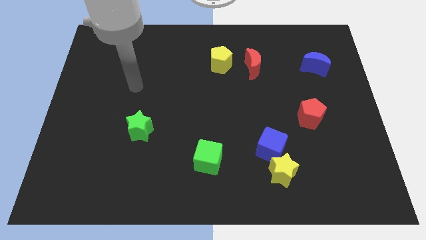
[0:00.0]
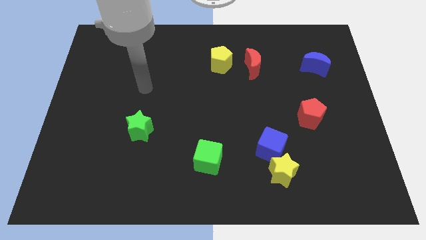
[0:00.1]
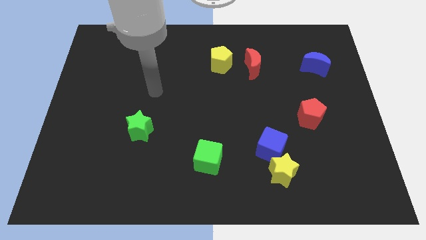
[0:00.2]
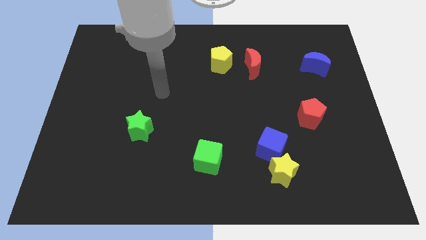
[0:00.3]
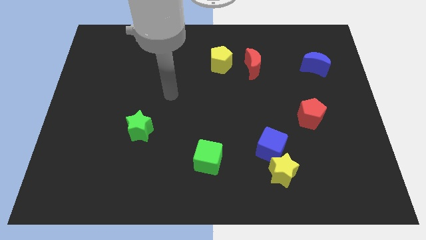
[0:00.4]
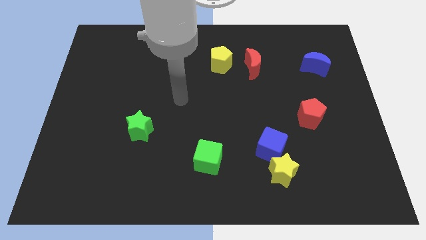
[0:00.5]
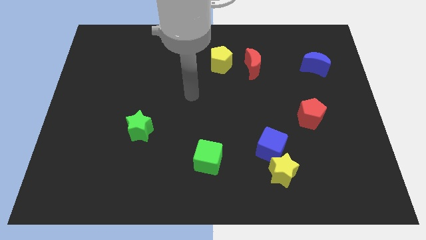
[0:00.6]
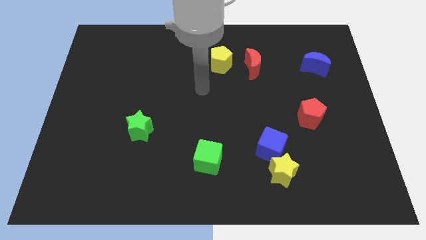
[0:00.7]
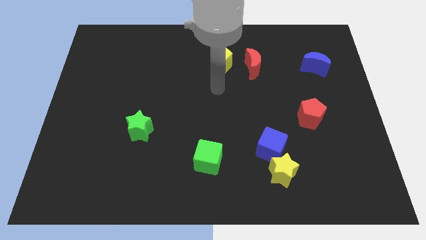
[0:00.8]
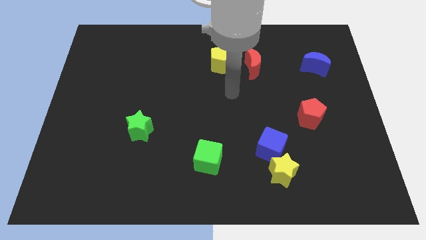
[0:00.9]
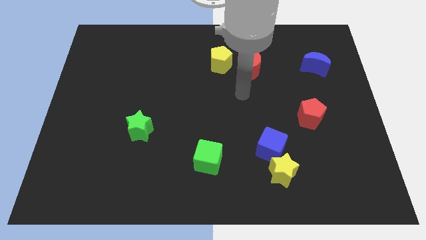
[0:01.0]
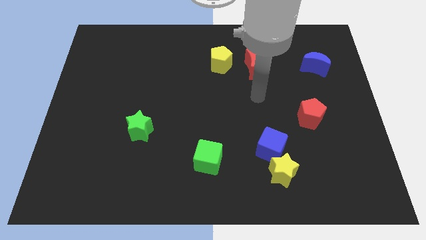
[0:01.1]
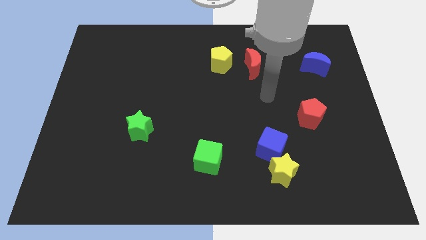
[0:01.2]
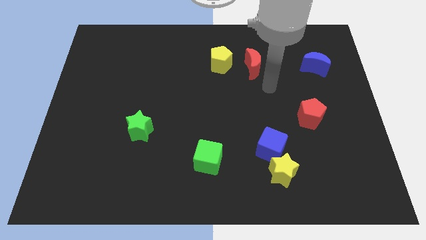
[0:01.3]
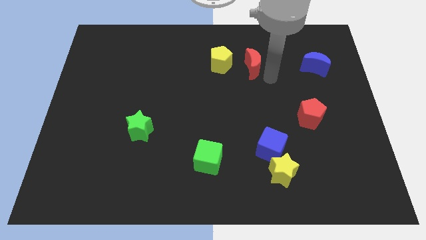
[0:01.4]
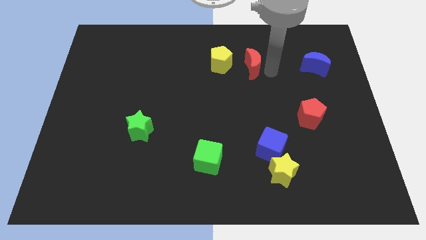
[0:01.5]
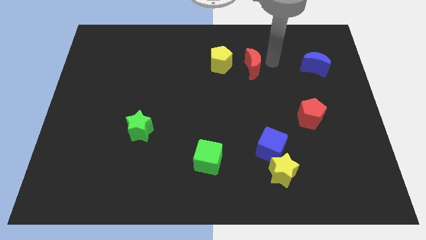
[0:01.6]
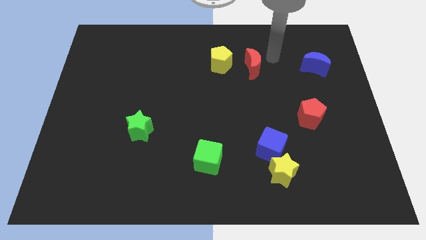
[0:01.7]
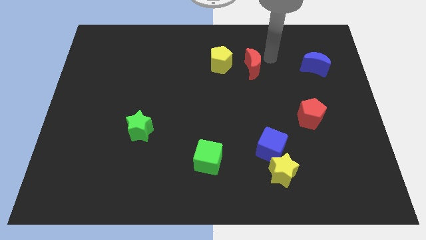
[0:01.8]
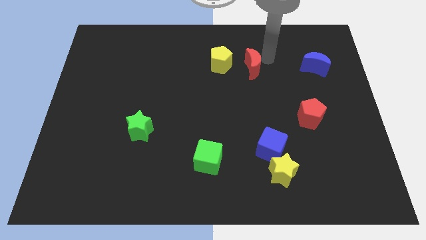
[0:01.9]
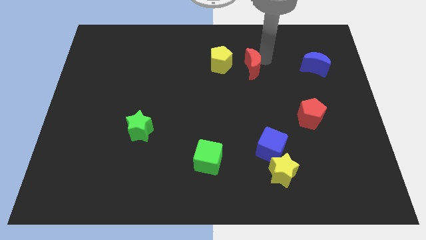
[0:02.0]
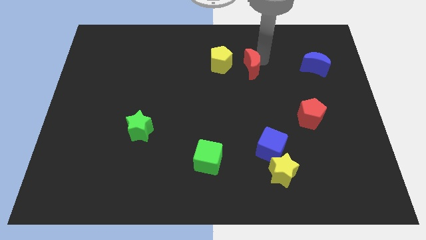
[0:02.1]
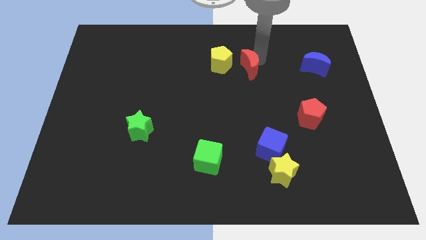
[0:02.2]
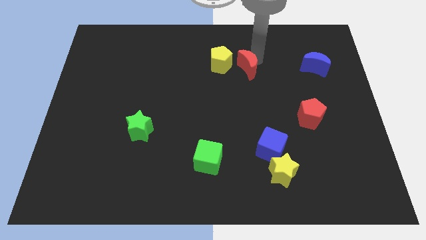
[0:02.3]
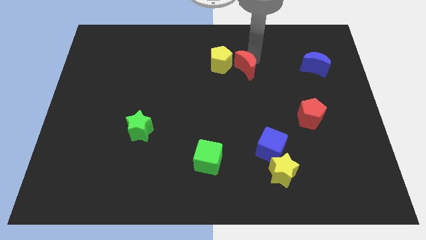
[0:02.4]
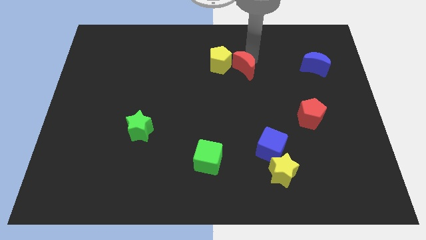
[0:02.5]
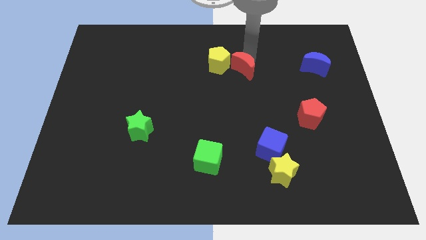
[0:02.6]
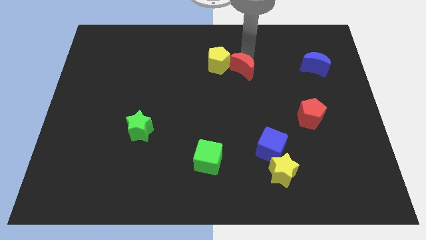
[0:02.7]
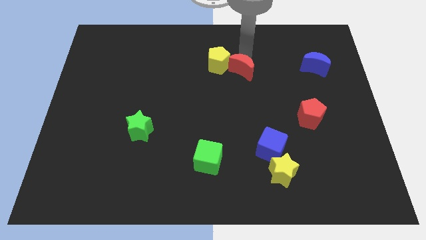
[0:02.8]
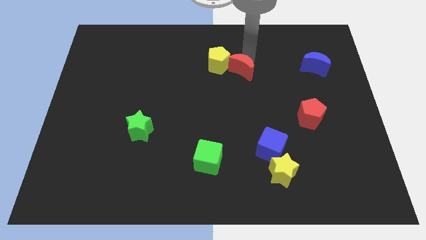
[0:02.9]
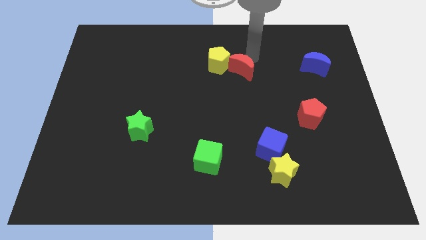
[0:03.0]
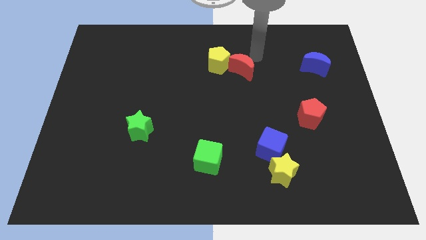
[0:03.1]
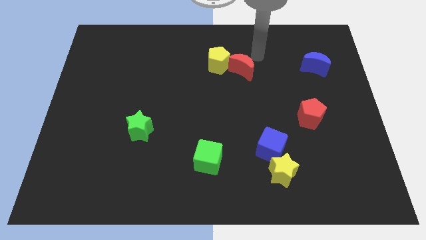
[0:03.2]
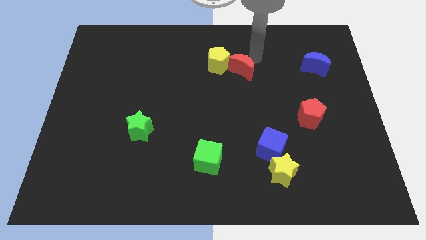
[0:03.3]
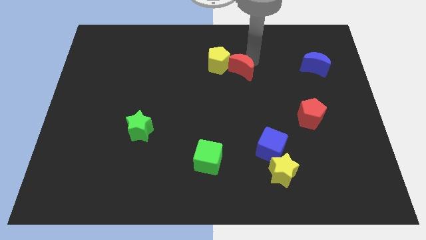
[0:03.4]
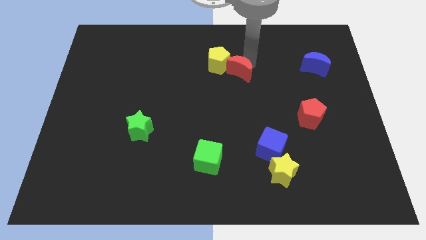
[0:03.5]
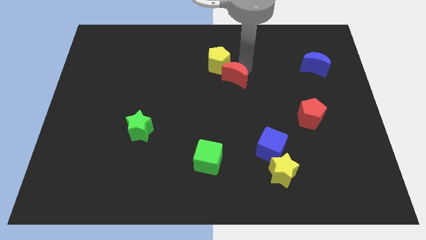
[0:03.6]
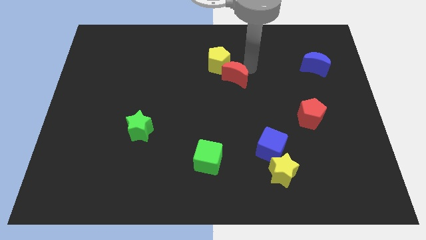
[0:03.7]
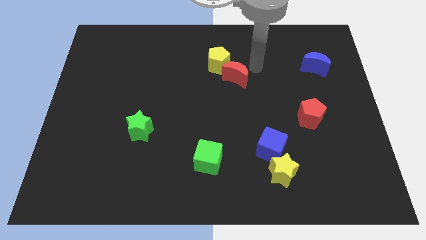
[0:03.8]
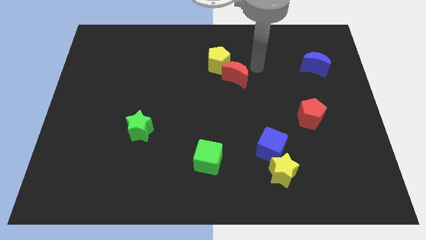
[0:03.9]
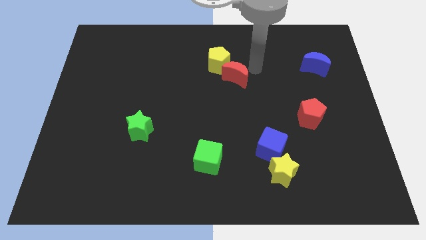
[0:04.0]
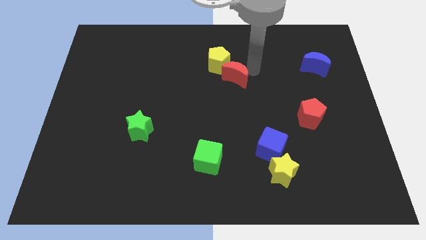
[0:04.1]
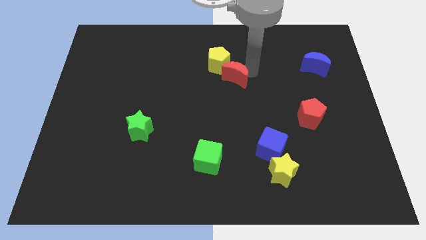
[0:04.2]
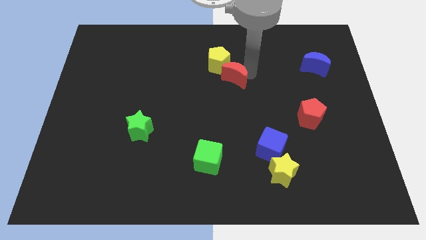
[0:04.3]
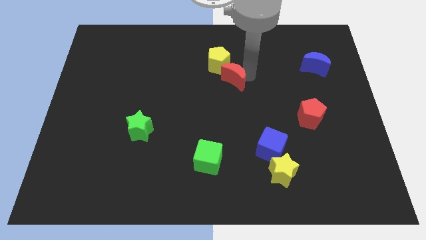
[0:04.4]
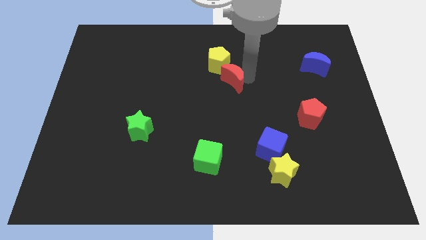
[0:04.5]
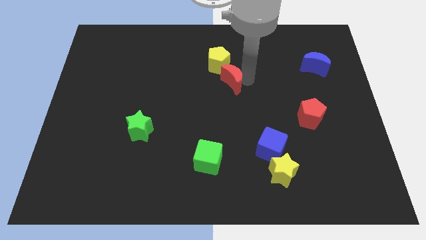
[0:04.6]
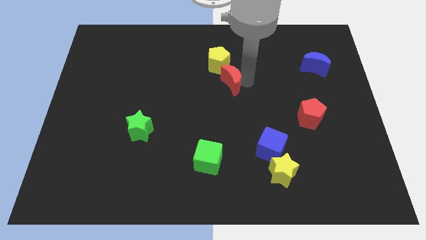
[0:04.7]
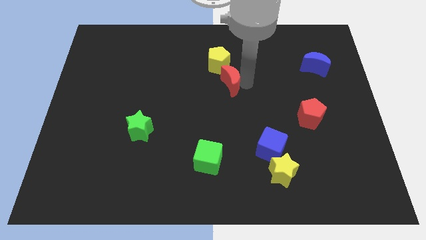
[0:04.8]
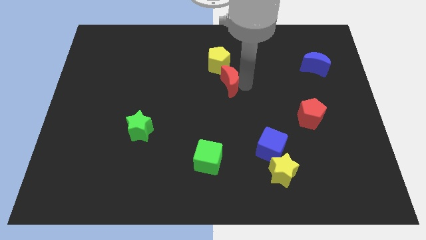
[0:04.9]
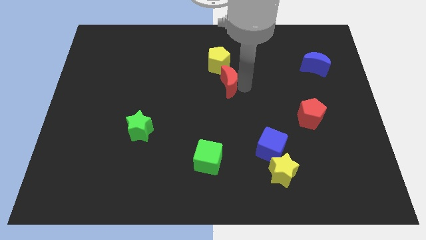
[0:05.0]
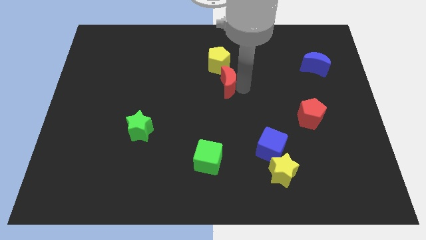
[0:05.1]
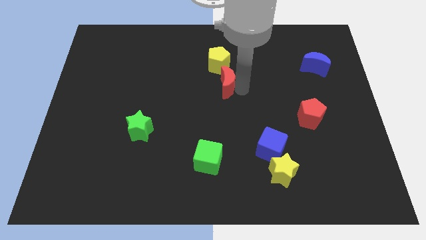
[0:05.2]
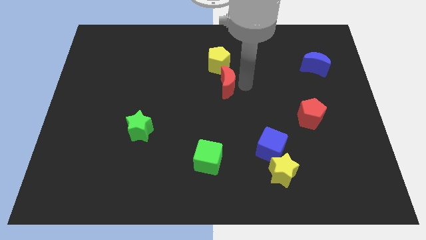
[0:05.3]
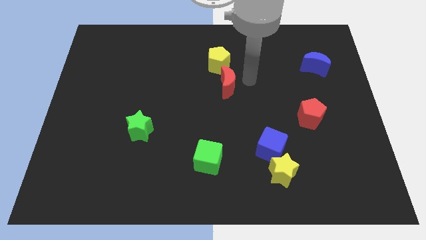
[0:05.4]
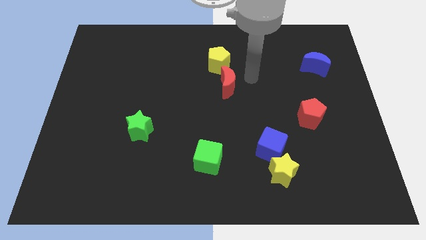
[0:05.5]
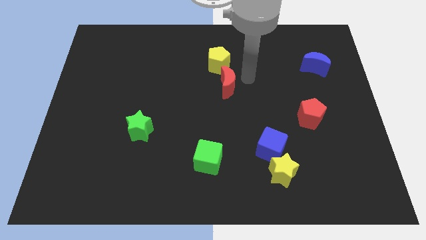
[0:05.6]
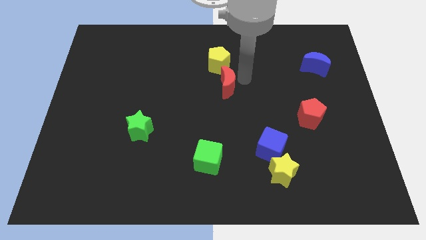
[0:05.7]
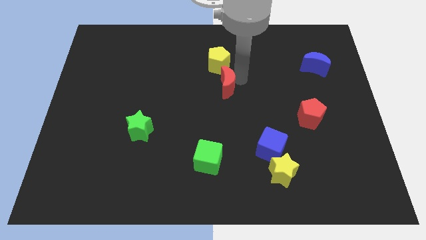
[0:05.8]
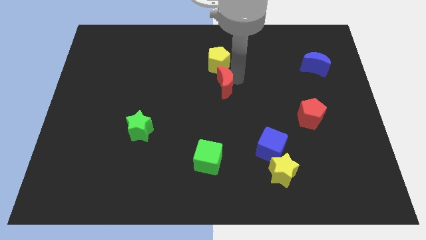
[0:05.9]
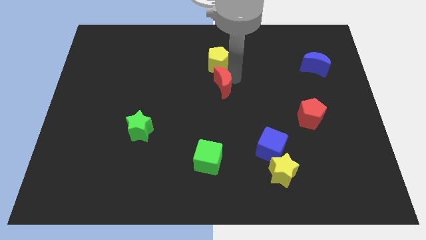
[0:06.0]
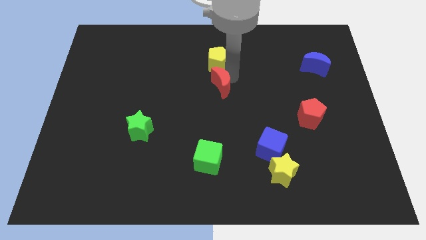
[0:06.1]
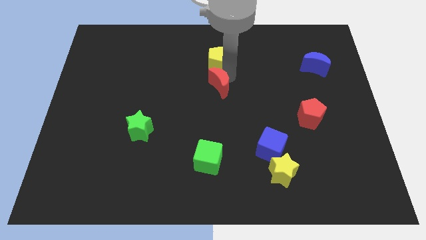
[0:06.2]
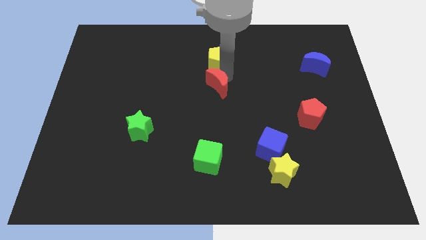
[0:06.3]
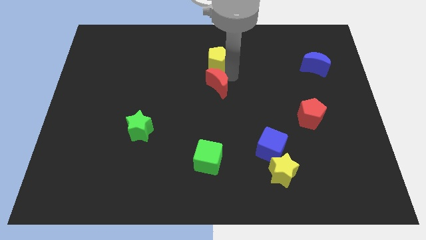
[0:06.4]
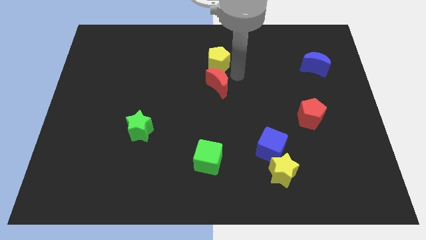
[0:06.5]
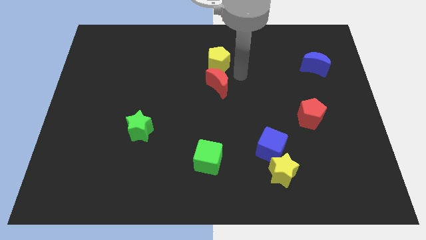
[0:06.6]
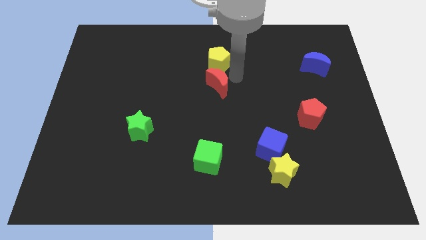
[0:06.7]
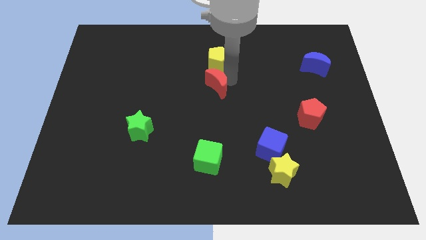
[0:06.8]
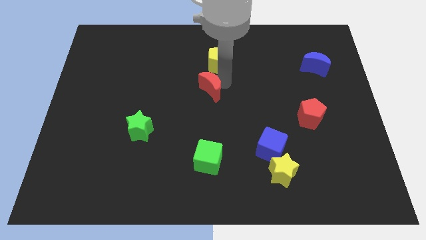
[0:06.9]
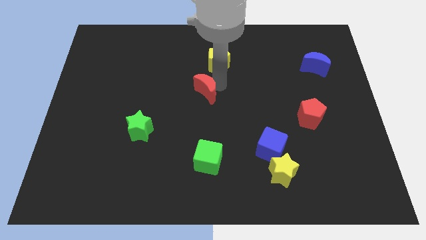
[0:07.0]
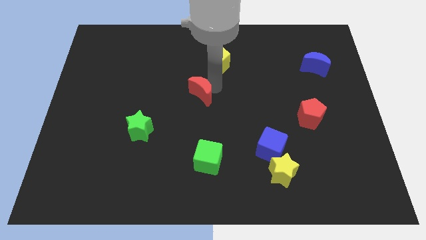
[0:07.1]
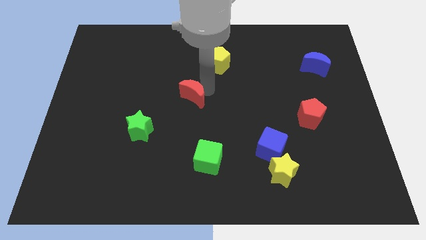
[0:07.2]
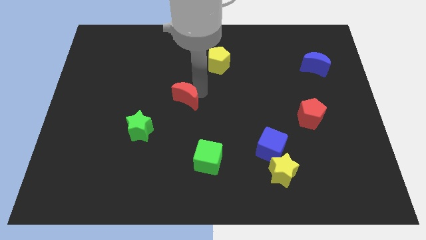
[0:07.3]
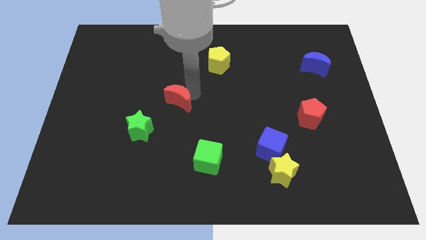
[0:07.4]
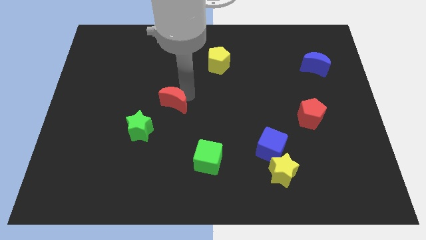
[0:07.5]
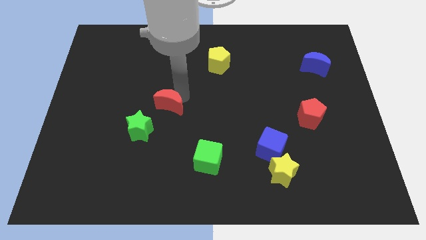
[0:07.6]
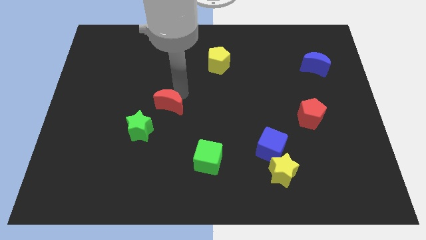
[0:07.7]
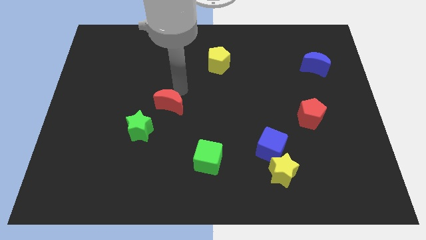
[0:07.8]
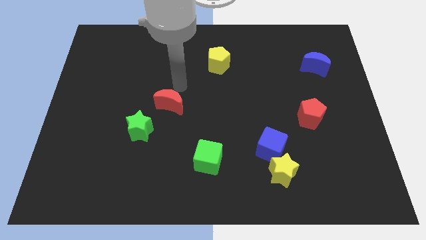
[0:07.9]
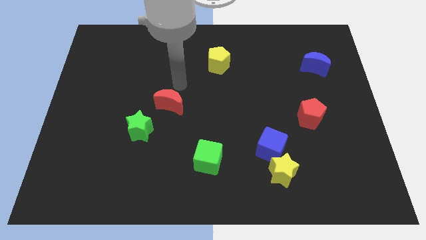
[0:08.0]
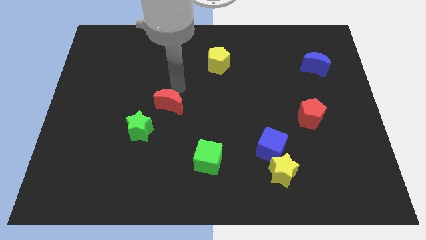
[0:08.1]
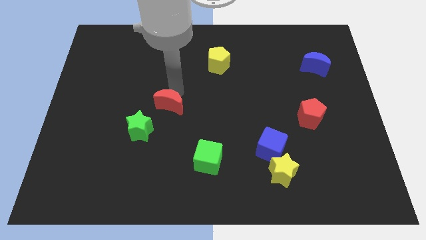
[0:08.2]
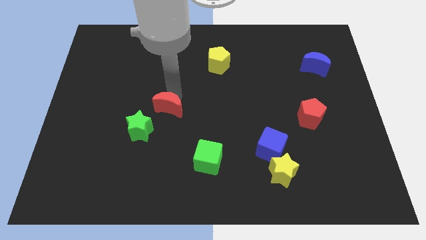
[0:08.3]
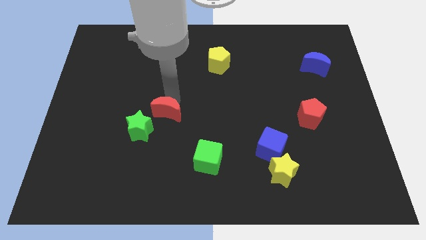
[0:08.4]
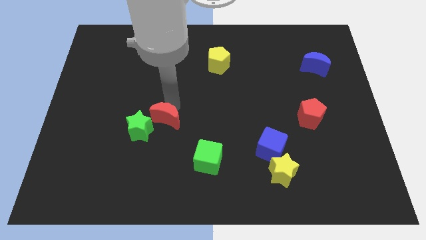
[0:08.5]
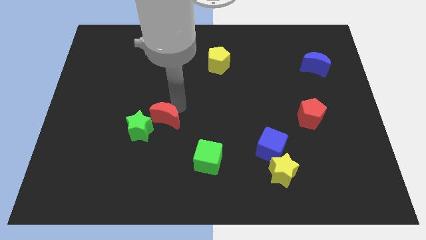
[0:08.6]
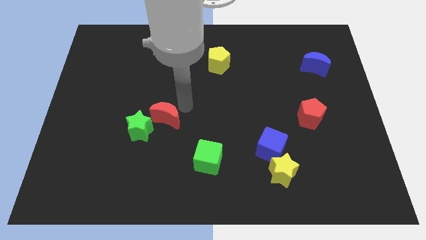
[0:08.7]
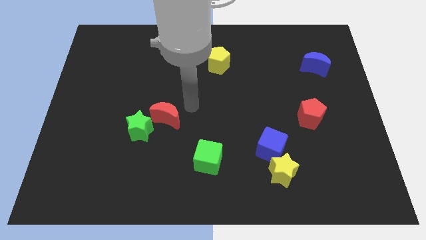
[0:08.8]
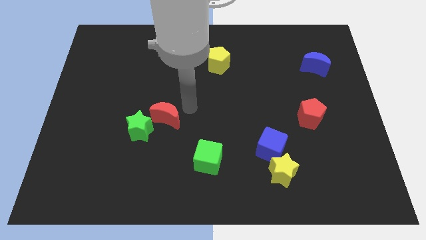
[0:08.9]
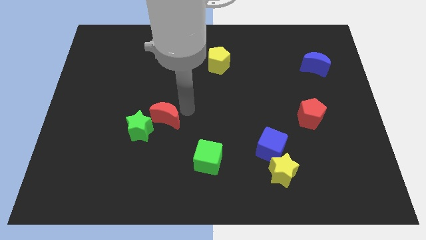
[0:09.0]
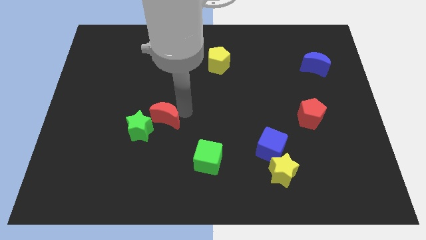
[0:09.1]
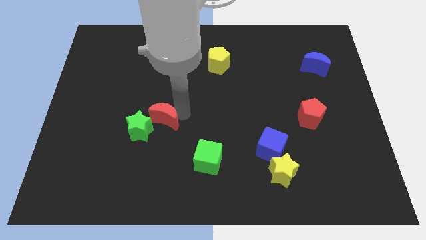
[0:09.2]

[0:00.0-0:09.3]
slide the red moon next to the green star
